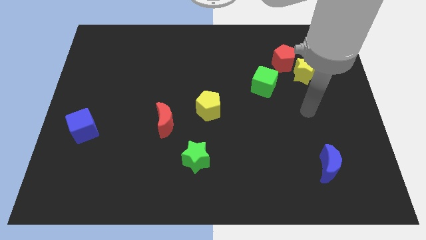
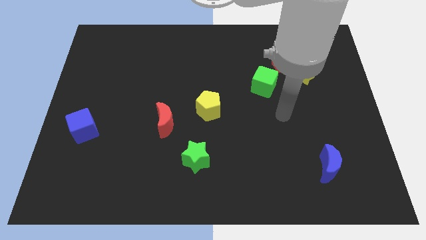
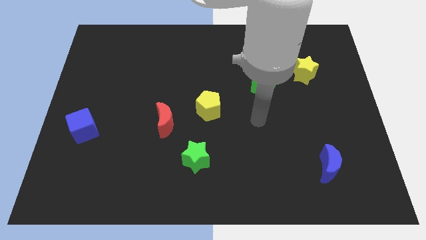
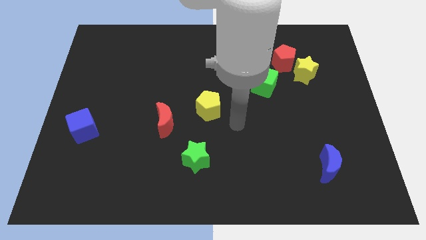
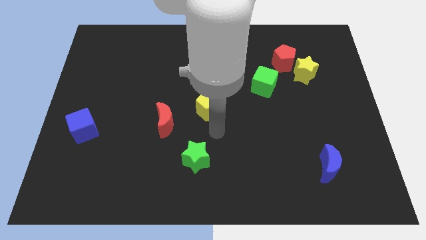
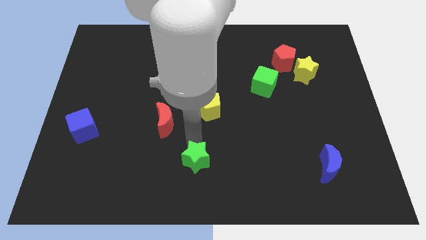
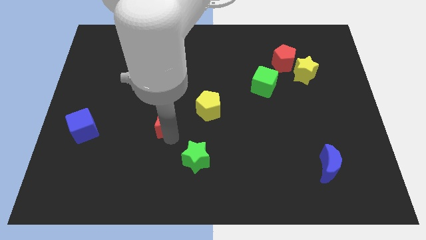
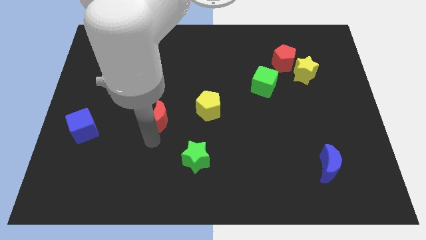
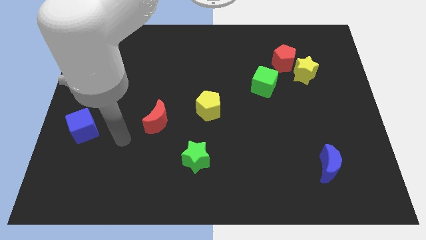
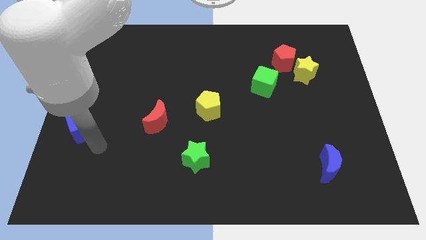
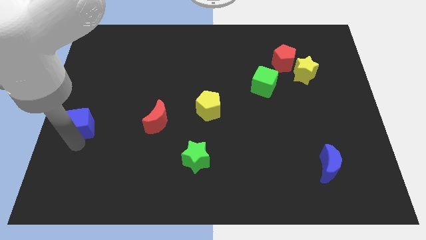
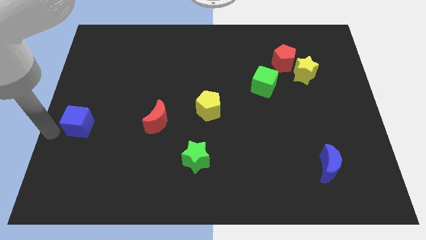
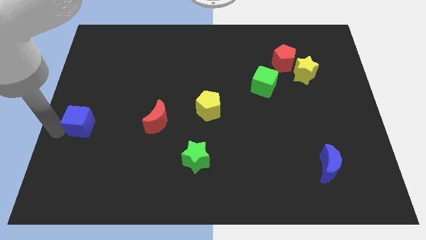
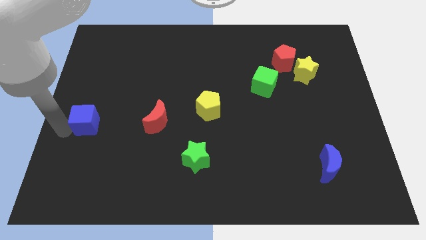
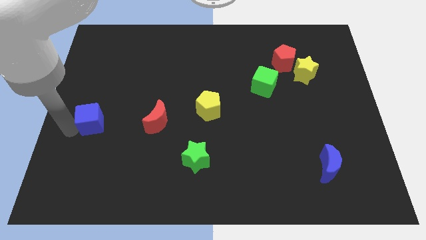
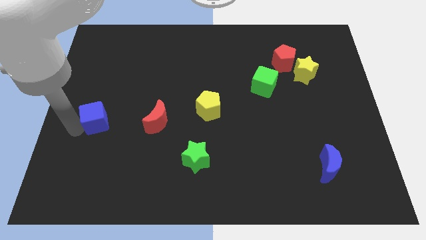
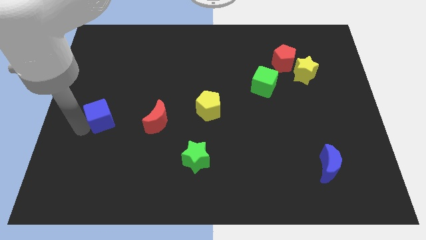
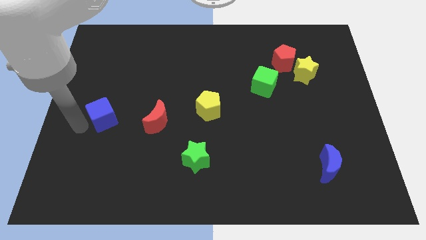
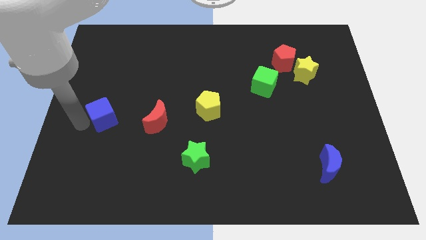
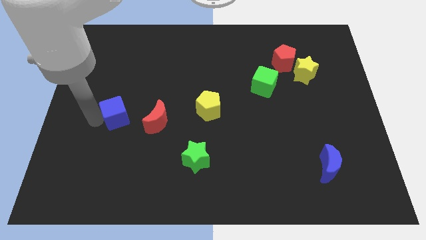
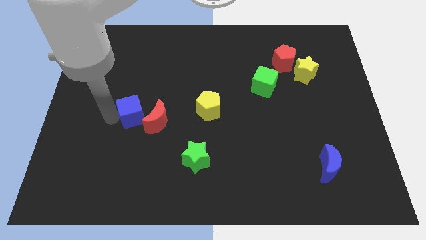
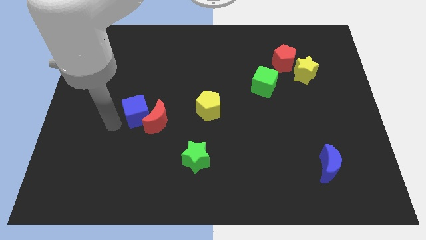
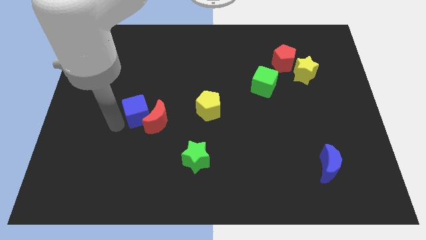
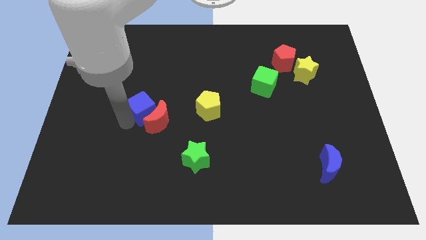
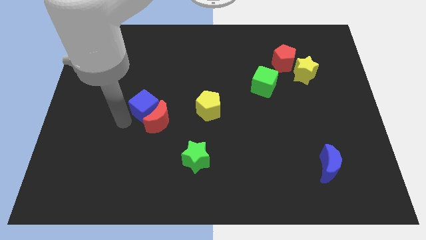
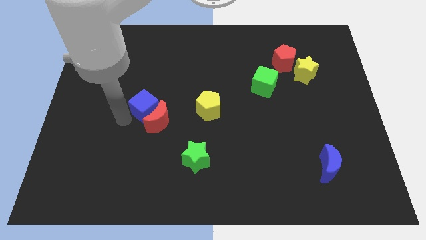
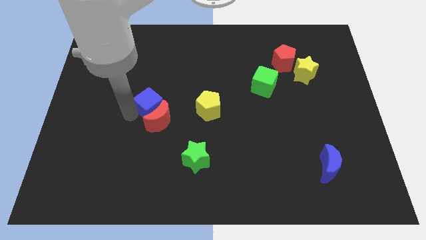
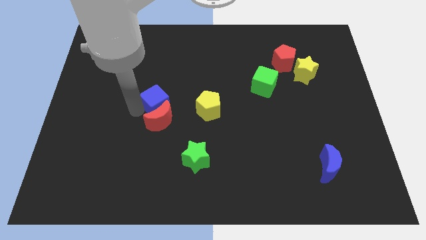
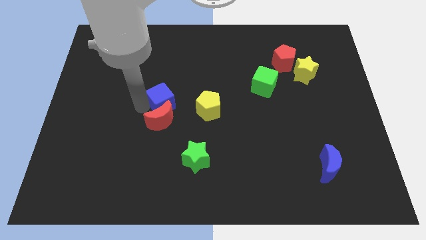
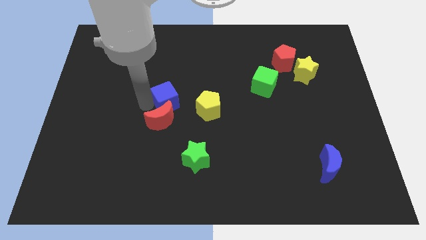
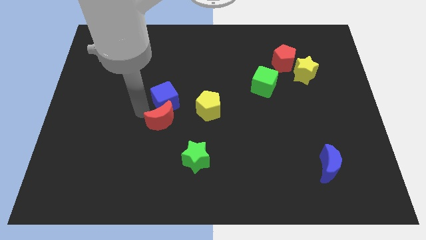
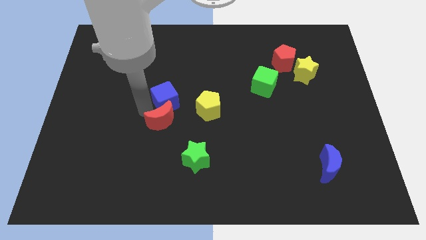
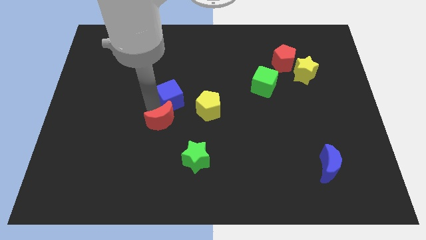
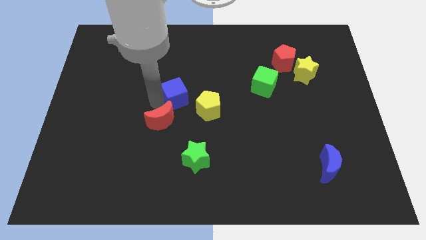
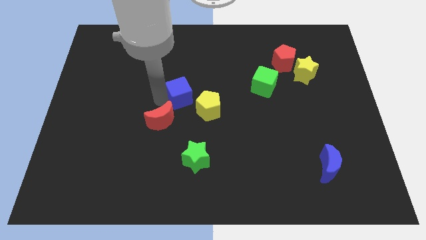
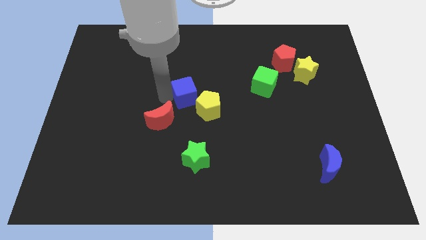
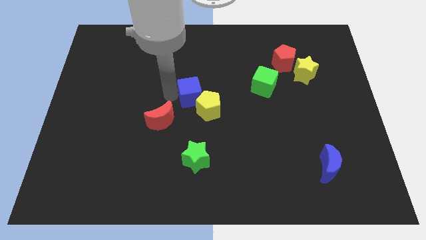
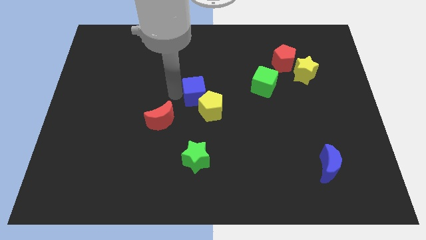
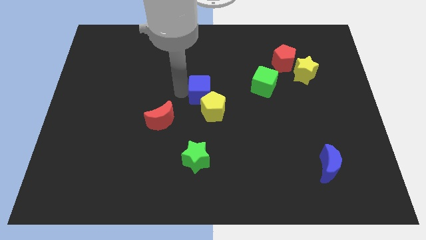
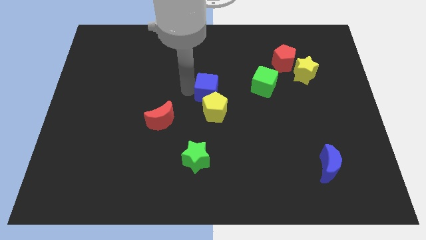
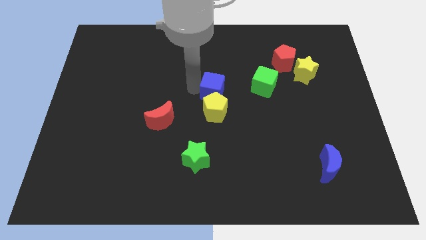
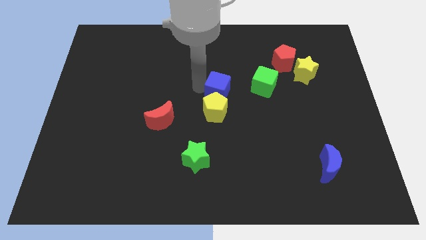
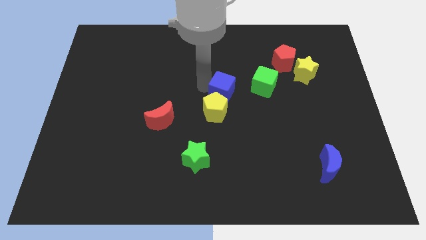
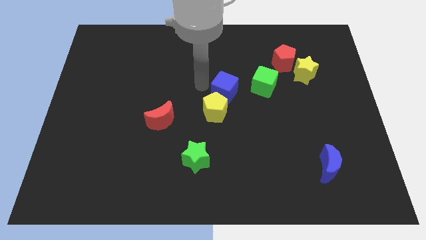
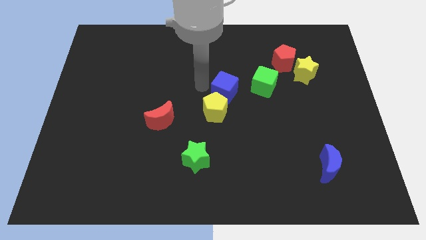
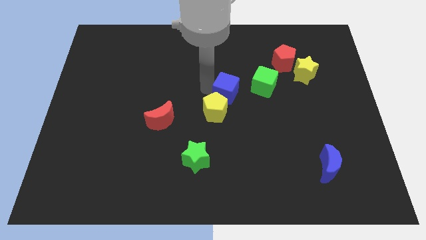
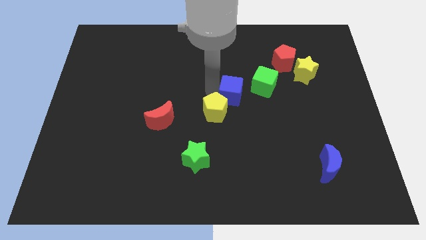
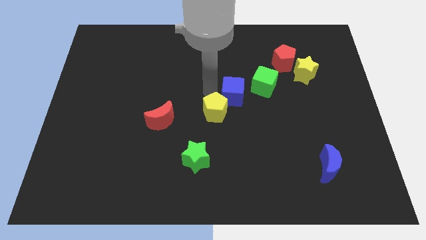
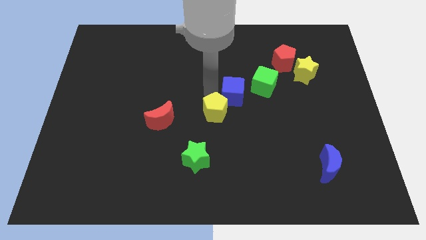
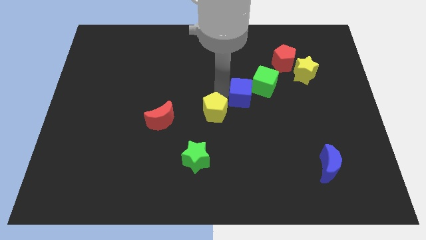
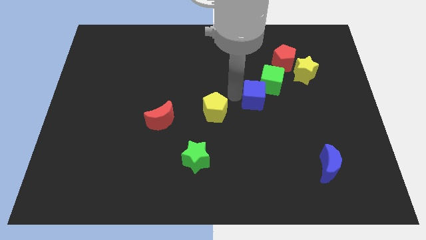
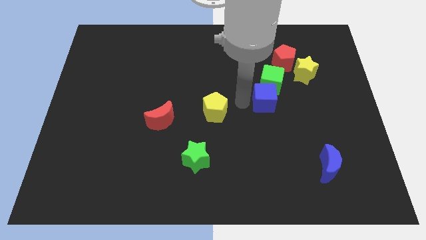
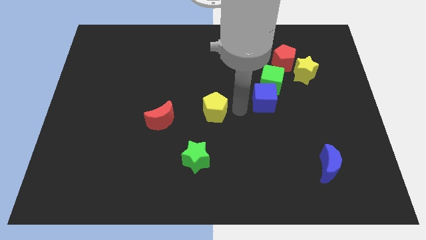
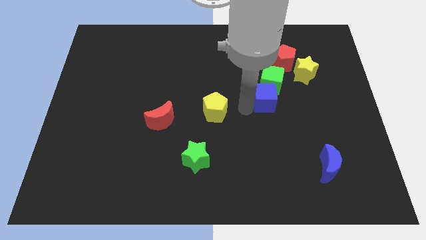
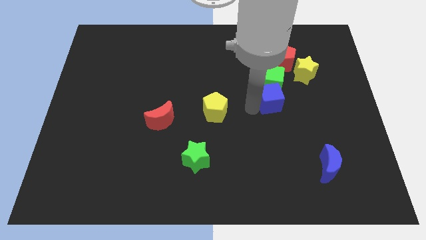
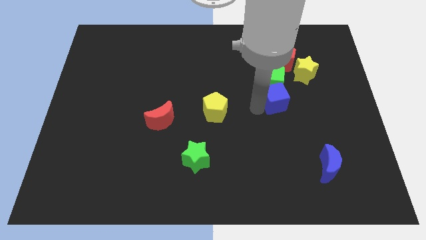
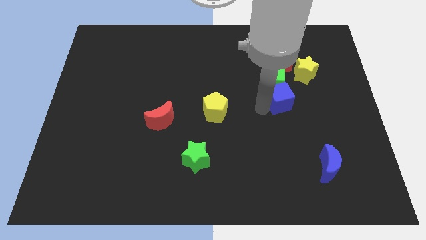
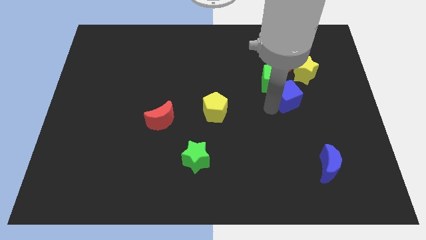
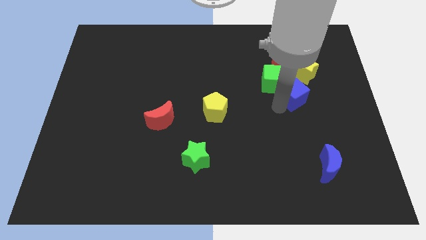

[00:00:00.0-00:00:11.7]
put the blue cube to the right of the green cube

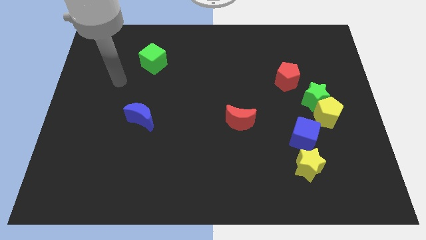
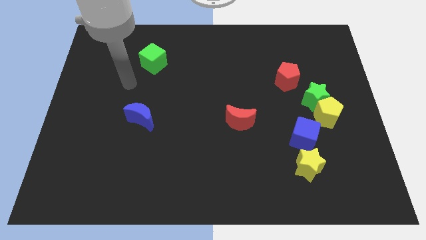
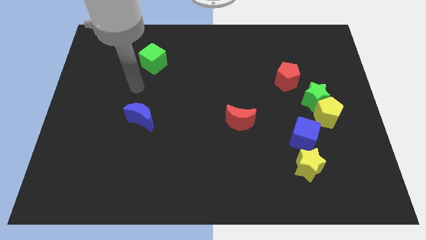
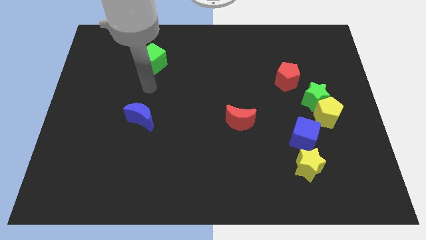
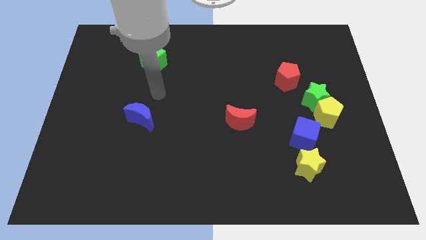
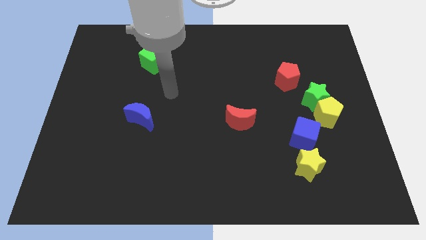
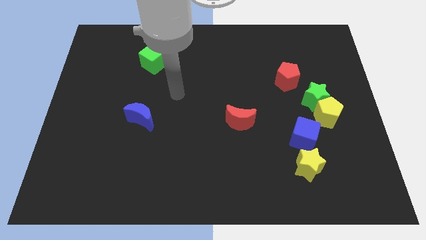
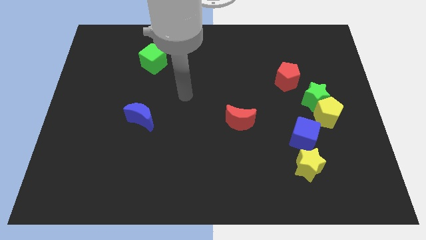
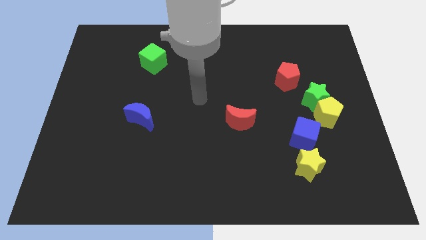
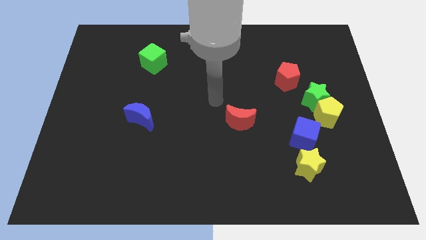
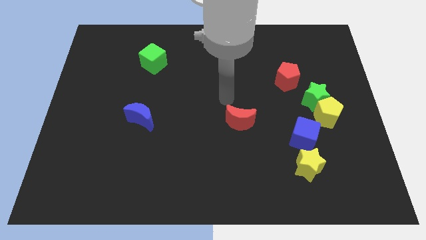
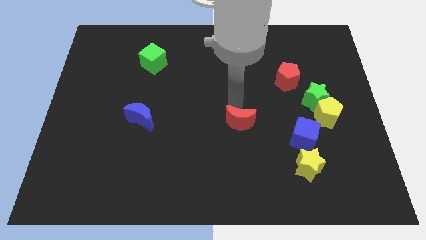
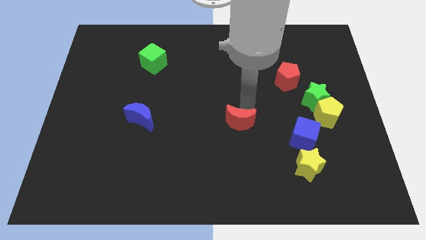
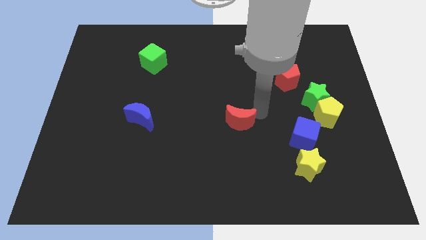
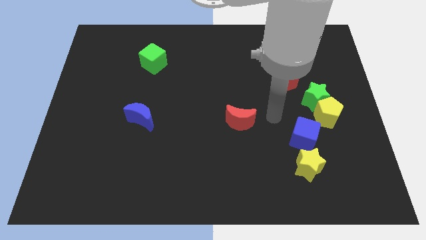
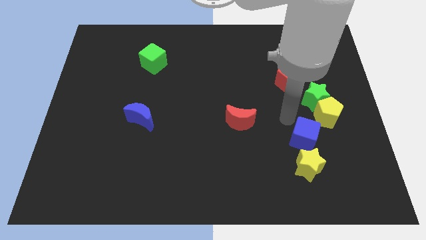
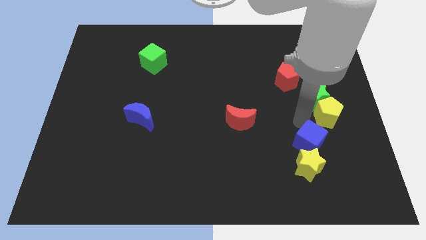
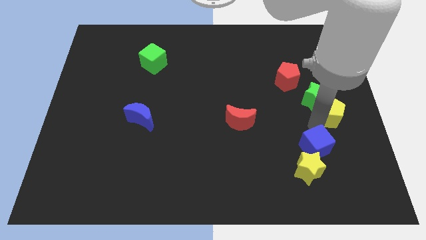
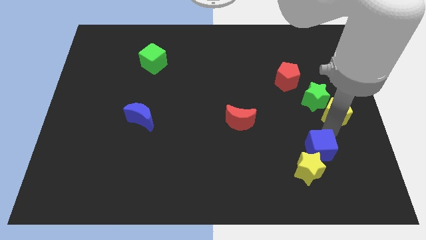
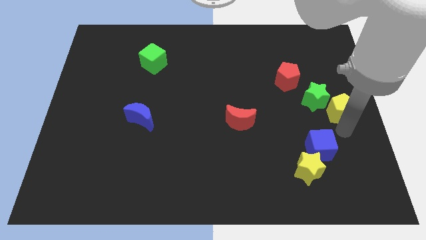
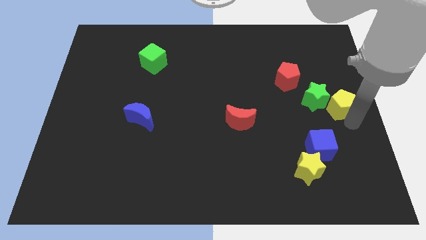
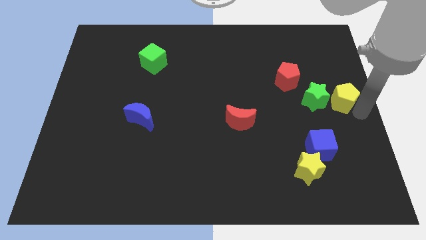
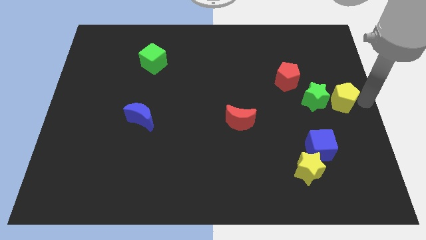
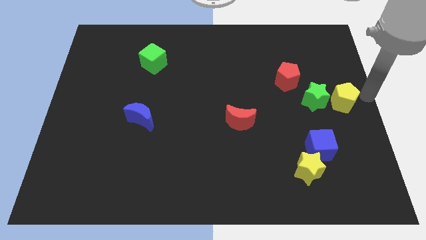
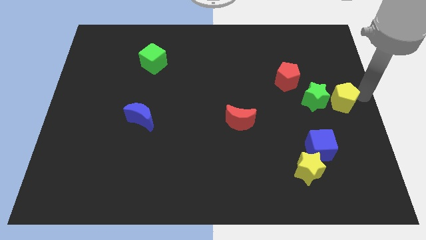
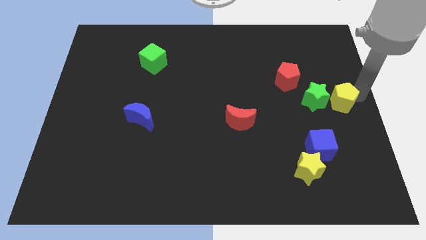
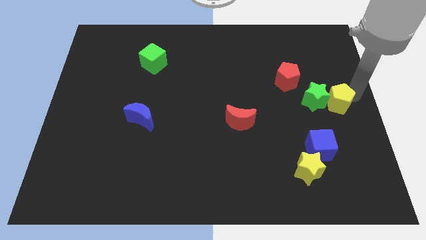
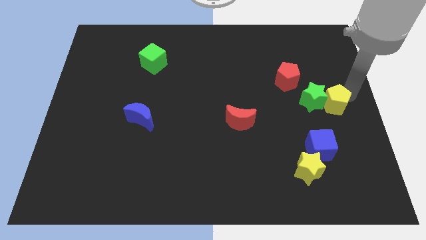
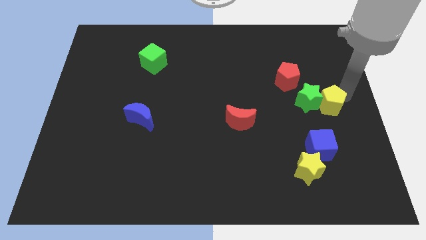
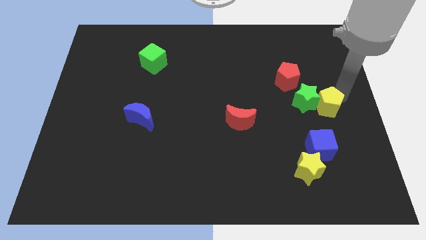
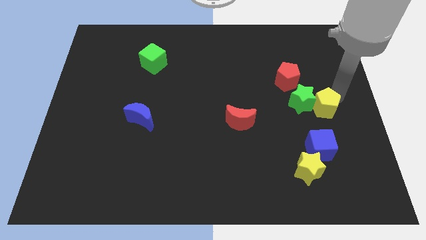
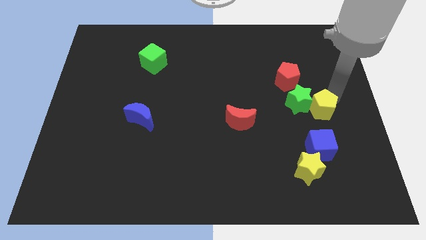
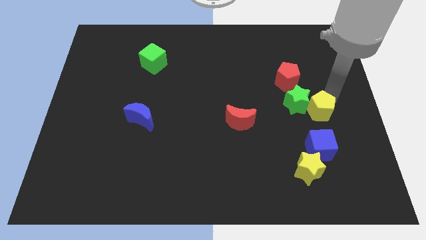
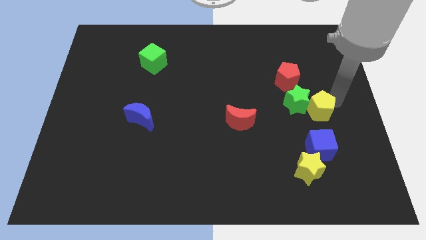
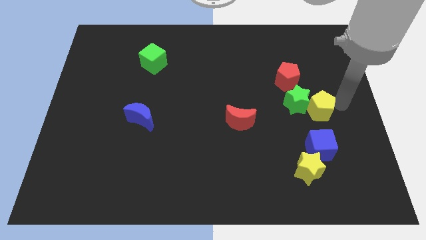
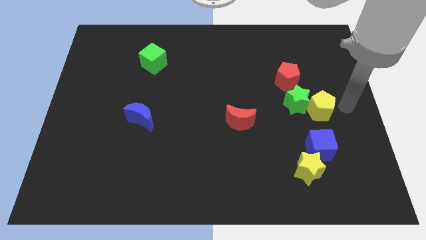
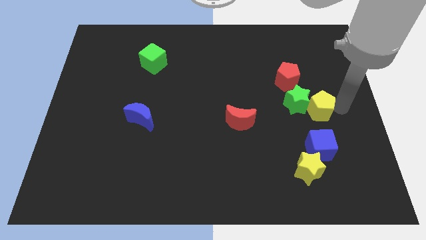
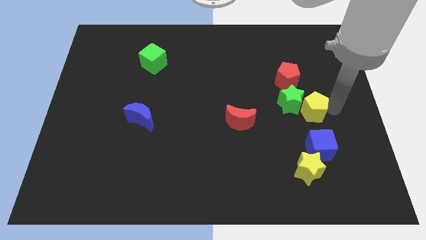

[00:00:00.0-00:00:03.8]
move the yellow pentagon to the bottom side of the red pentagon
